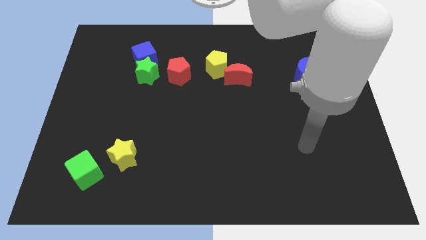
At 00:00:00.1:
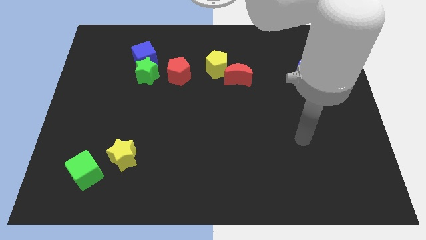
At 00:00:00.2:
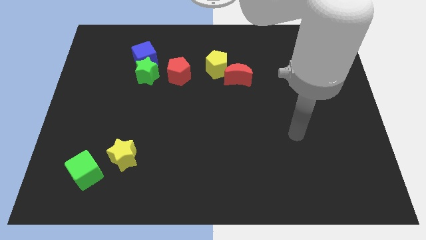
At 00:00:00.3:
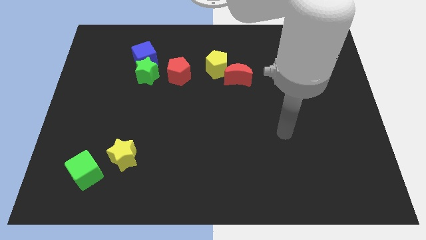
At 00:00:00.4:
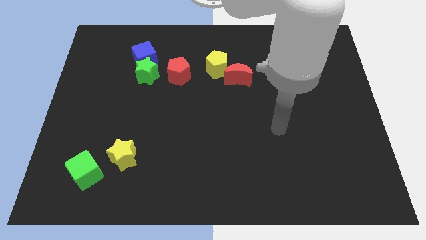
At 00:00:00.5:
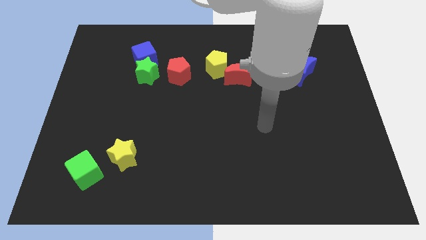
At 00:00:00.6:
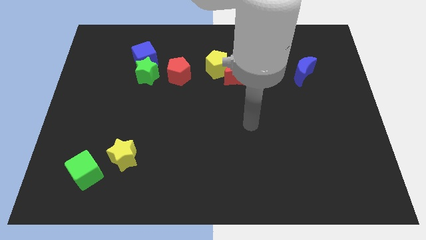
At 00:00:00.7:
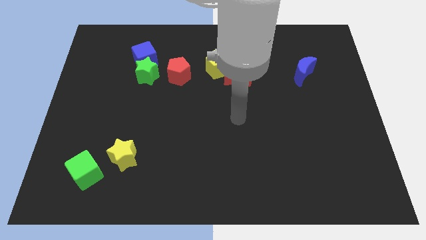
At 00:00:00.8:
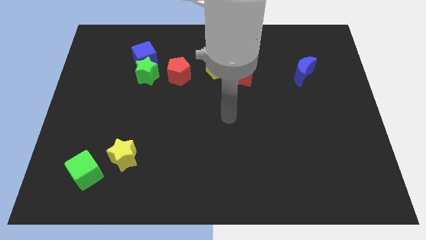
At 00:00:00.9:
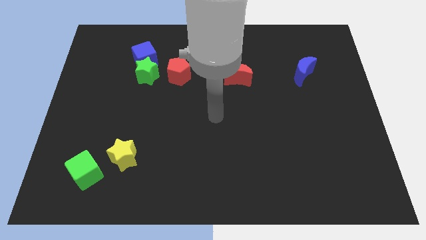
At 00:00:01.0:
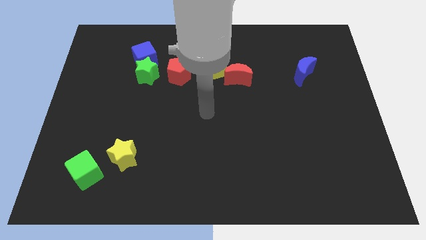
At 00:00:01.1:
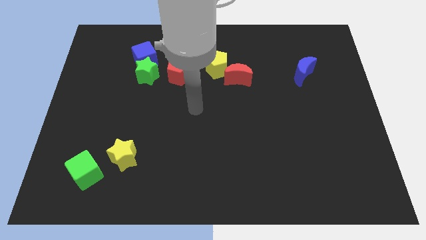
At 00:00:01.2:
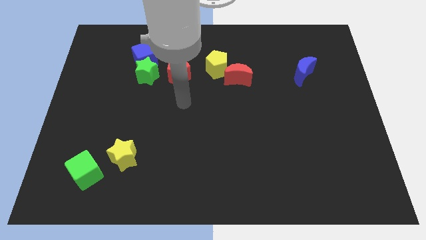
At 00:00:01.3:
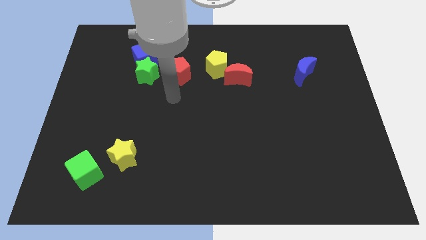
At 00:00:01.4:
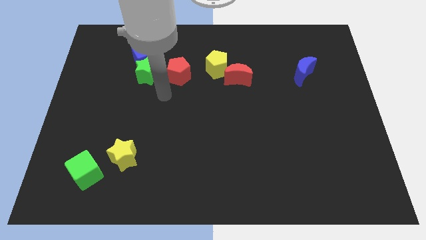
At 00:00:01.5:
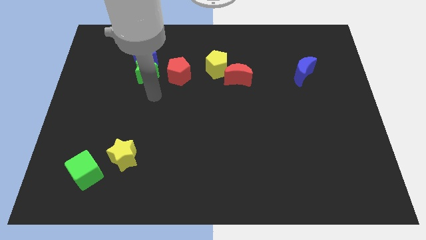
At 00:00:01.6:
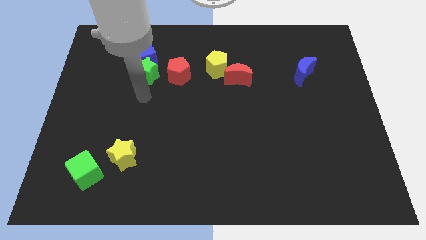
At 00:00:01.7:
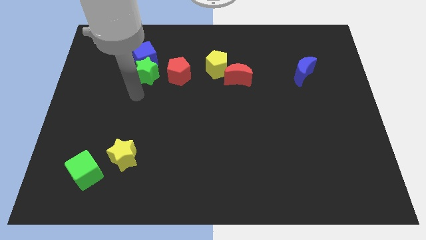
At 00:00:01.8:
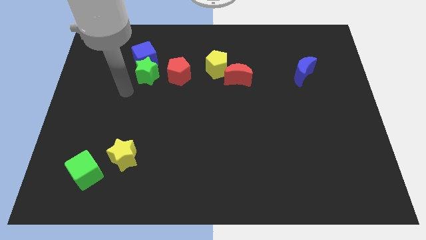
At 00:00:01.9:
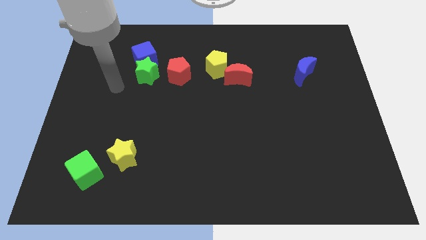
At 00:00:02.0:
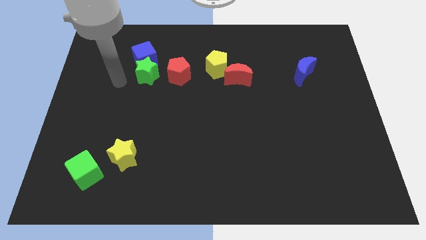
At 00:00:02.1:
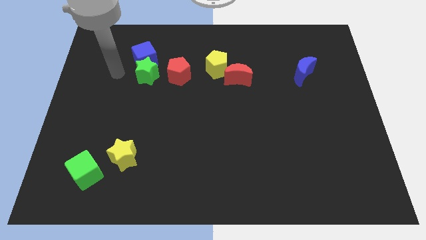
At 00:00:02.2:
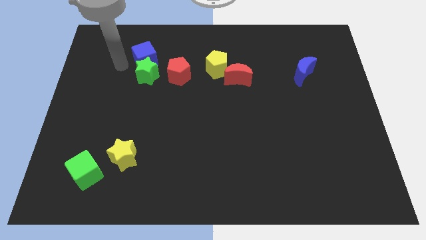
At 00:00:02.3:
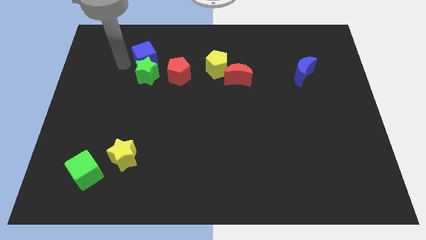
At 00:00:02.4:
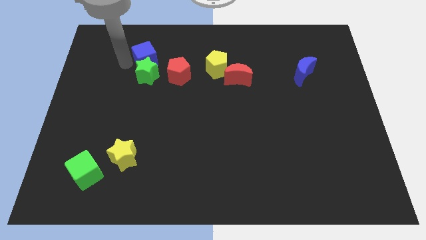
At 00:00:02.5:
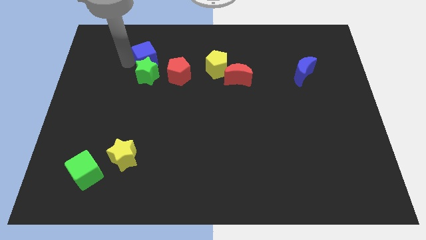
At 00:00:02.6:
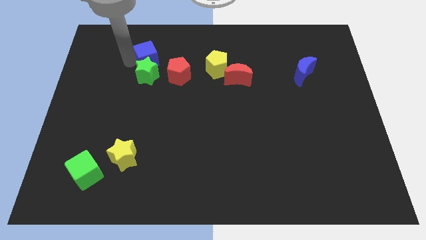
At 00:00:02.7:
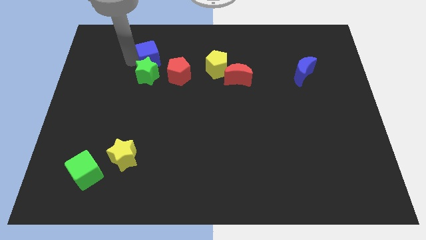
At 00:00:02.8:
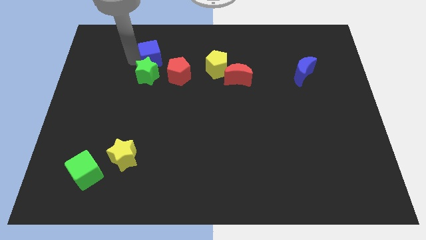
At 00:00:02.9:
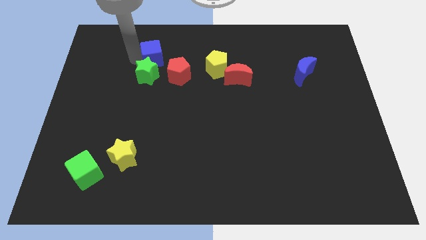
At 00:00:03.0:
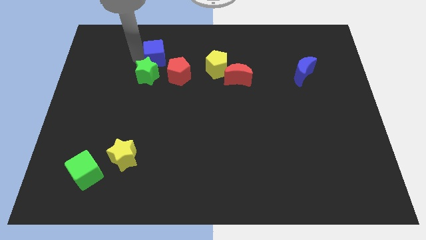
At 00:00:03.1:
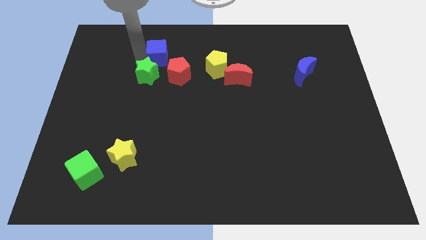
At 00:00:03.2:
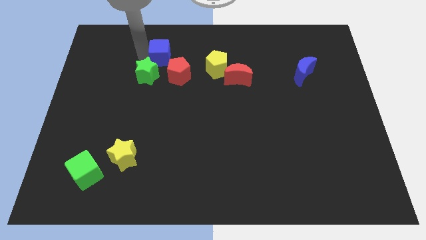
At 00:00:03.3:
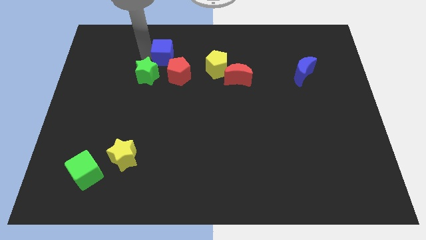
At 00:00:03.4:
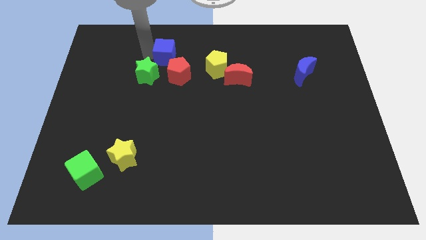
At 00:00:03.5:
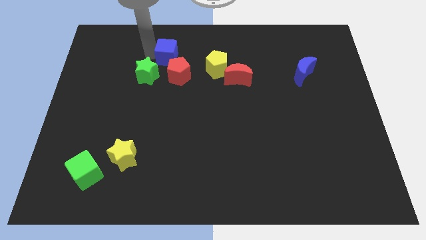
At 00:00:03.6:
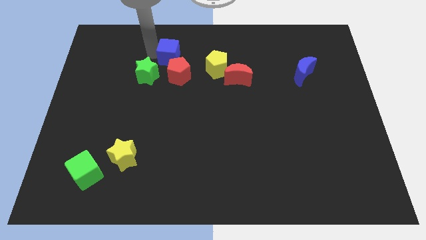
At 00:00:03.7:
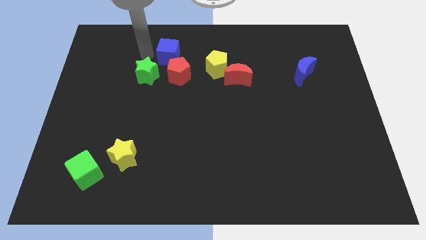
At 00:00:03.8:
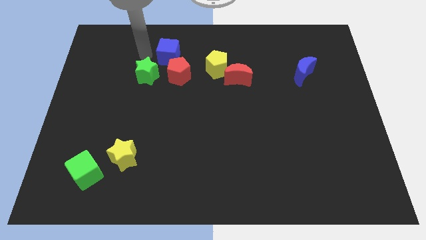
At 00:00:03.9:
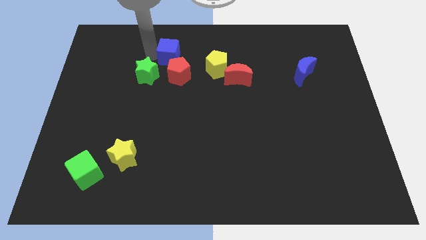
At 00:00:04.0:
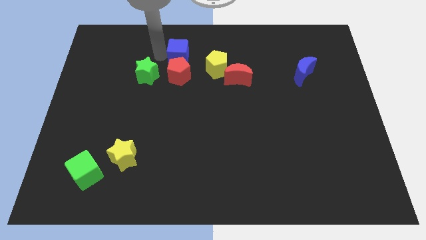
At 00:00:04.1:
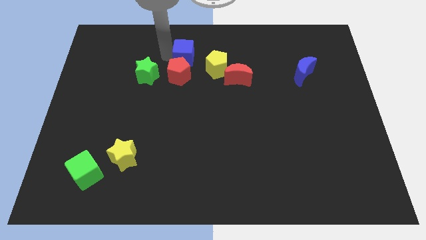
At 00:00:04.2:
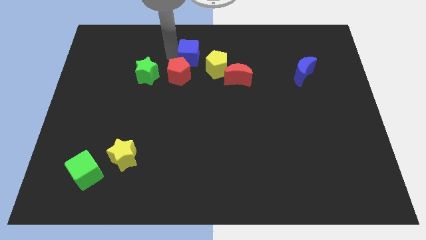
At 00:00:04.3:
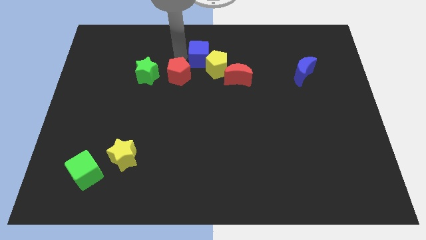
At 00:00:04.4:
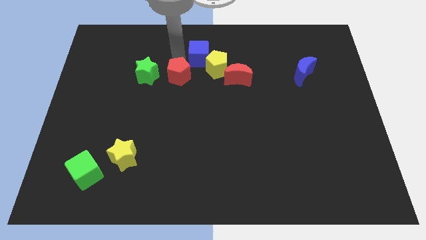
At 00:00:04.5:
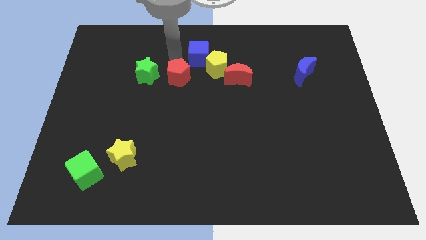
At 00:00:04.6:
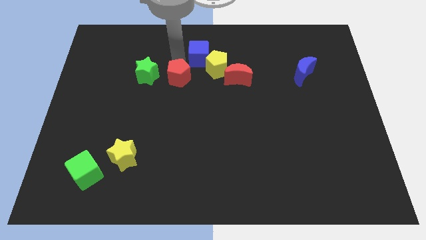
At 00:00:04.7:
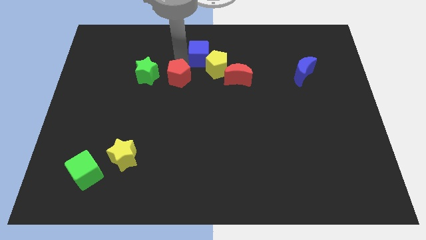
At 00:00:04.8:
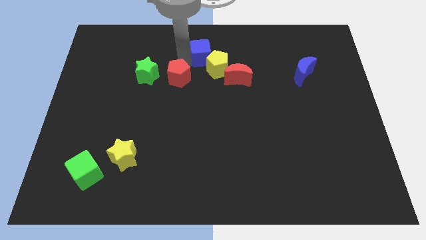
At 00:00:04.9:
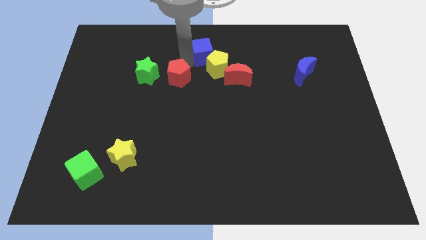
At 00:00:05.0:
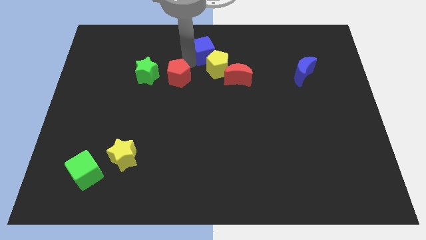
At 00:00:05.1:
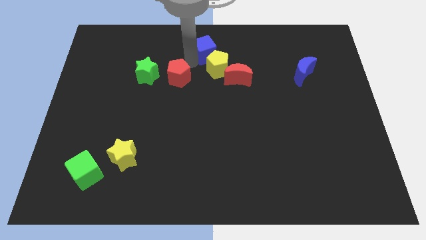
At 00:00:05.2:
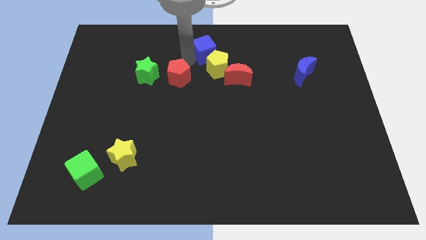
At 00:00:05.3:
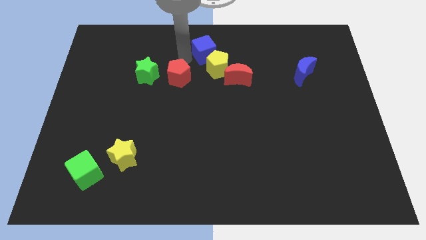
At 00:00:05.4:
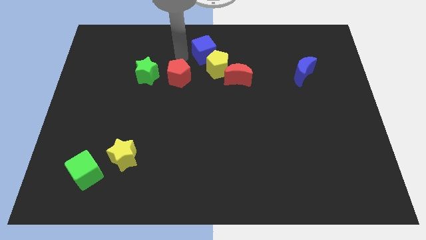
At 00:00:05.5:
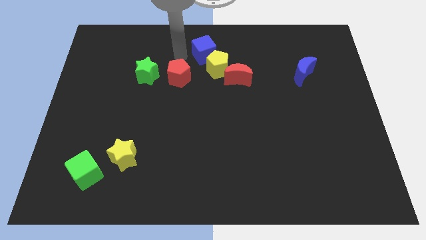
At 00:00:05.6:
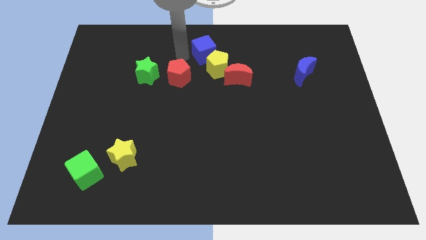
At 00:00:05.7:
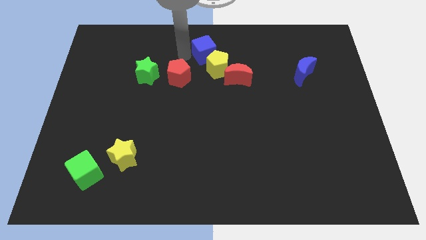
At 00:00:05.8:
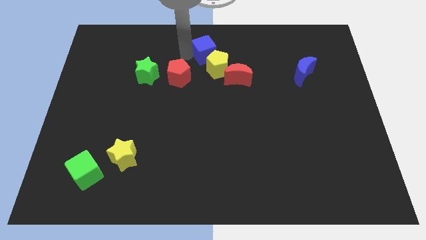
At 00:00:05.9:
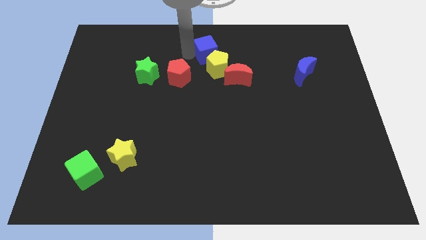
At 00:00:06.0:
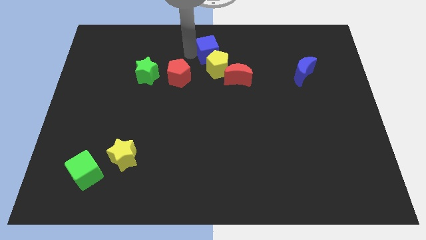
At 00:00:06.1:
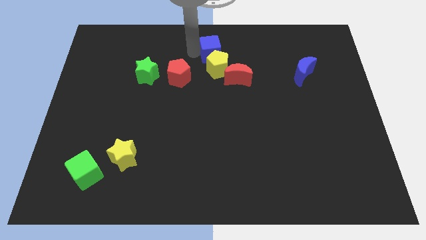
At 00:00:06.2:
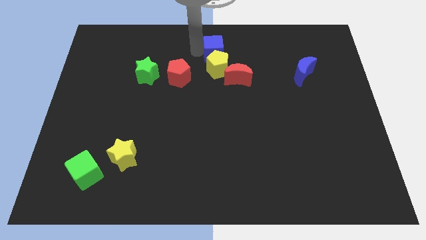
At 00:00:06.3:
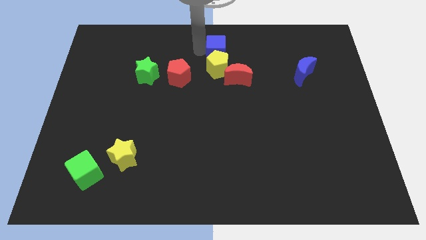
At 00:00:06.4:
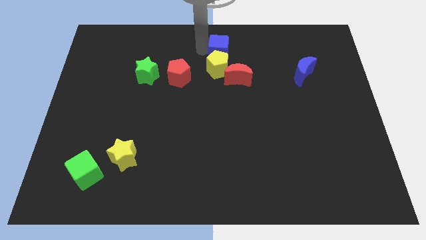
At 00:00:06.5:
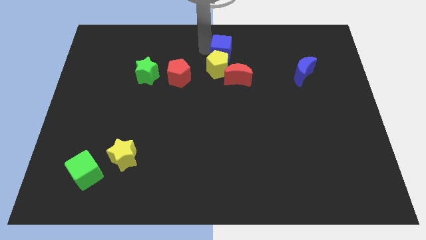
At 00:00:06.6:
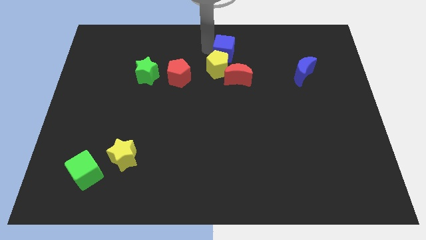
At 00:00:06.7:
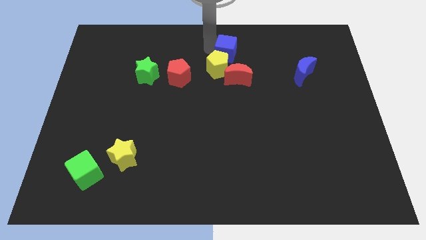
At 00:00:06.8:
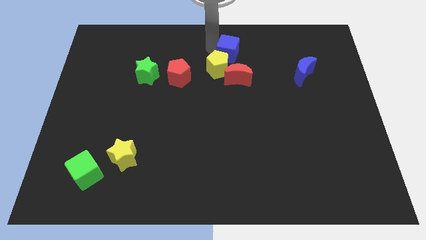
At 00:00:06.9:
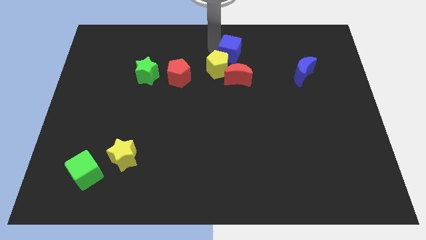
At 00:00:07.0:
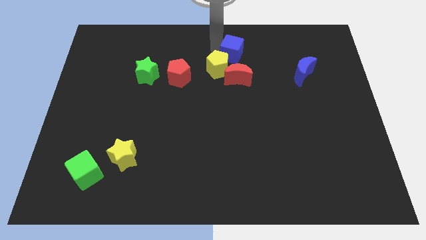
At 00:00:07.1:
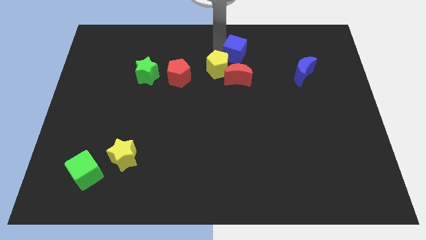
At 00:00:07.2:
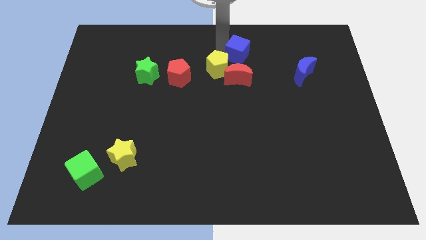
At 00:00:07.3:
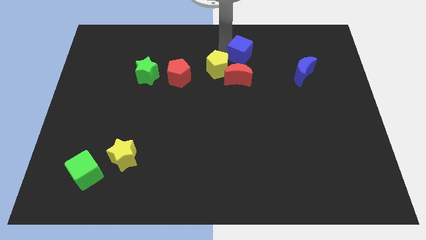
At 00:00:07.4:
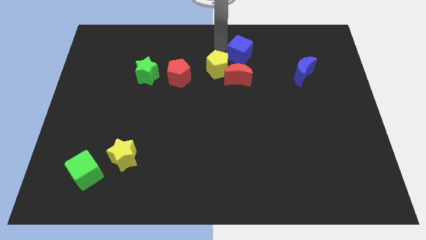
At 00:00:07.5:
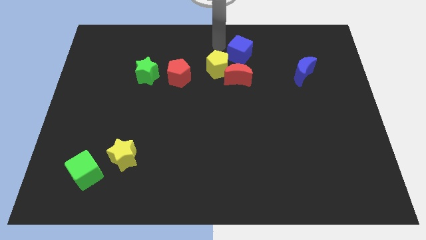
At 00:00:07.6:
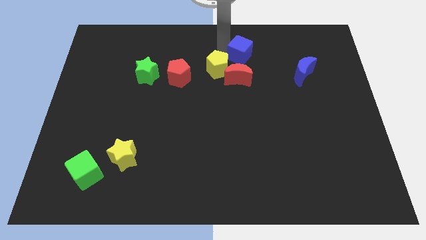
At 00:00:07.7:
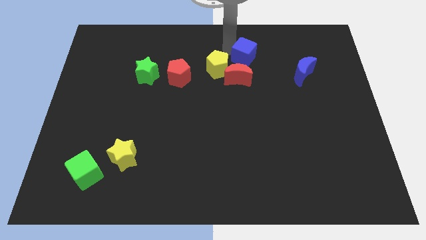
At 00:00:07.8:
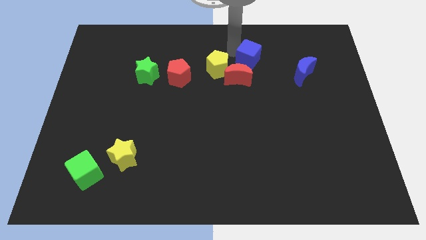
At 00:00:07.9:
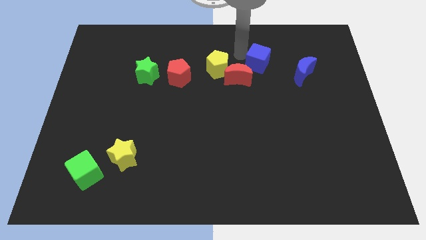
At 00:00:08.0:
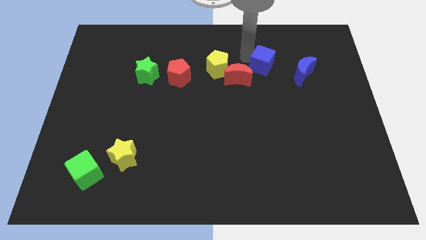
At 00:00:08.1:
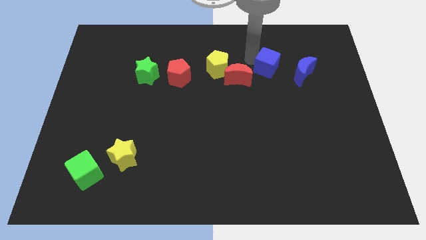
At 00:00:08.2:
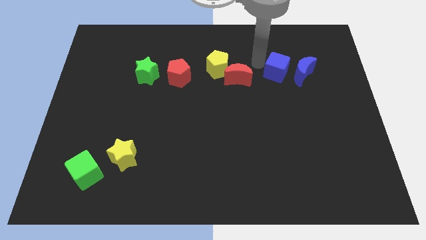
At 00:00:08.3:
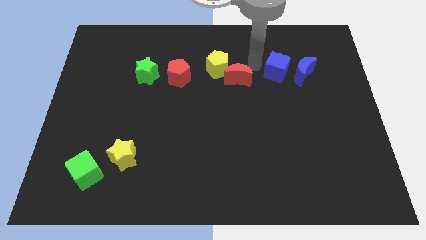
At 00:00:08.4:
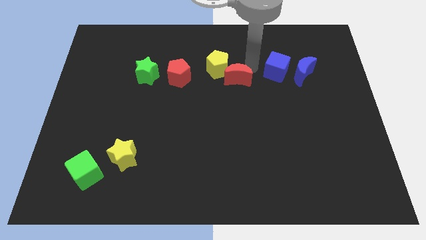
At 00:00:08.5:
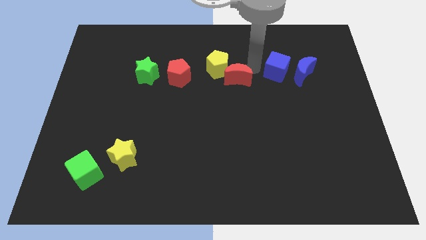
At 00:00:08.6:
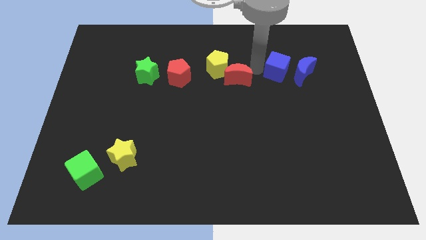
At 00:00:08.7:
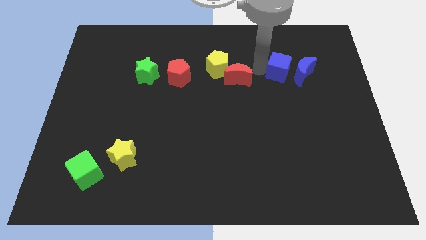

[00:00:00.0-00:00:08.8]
slide the blue cube towards the blue moon
